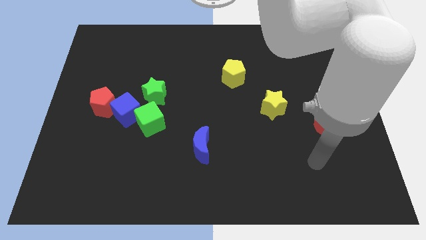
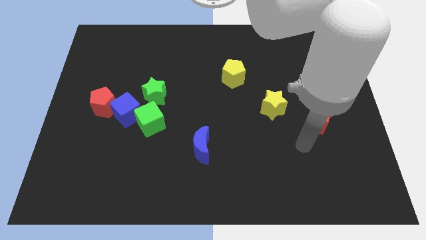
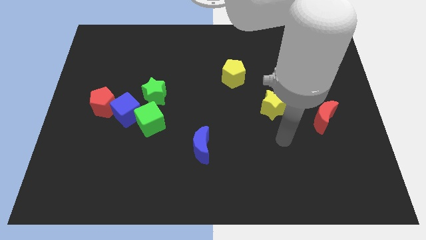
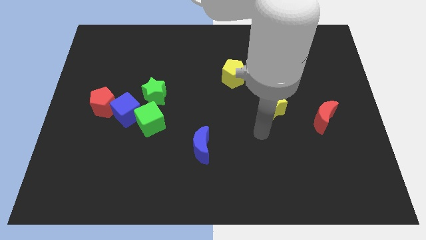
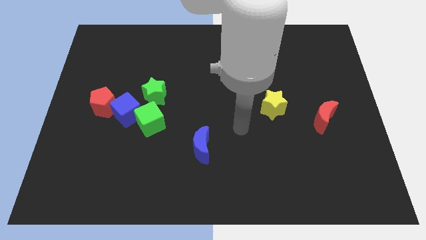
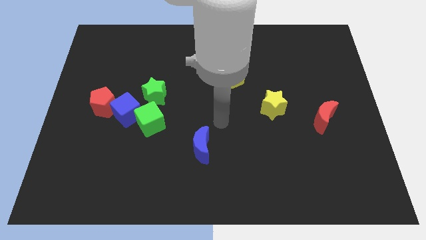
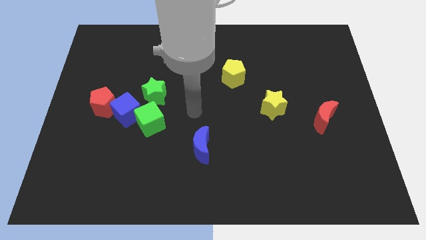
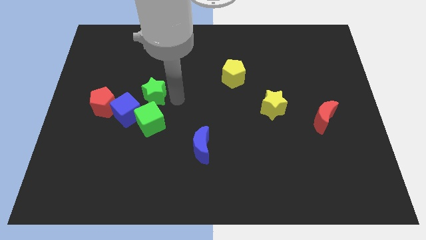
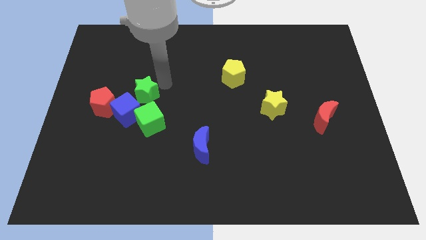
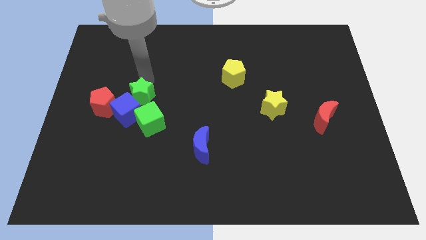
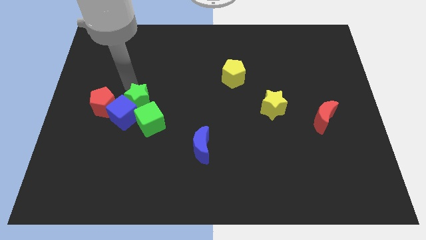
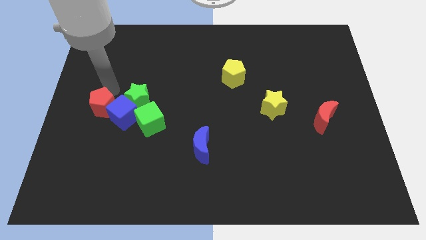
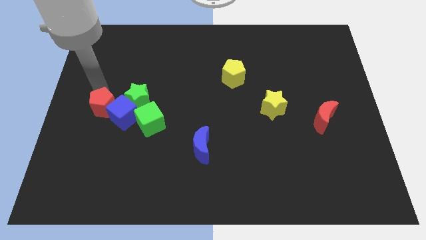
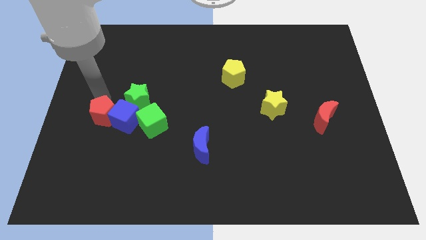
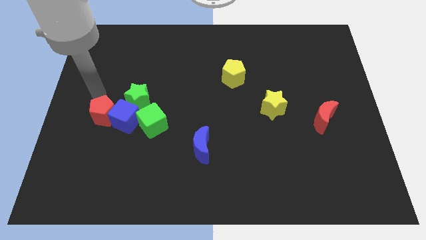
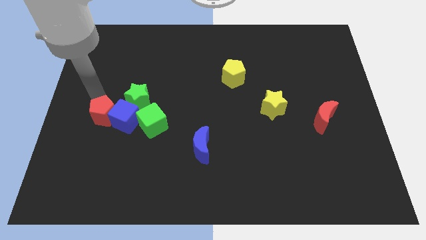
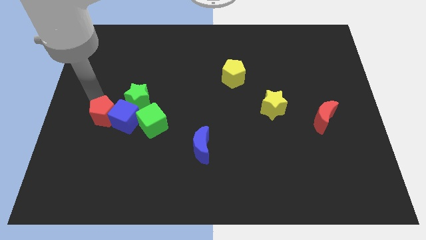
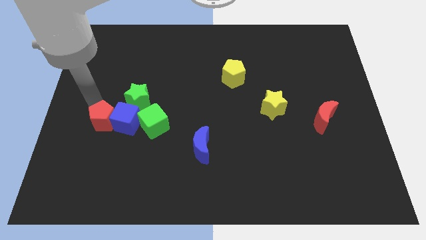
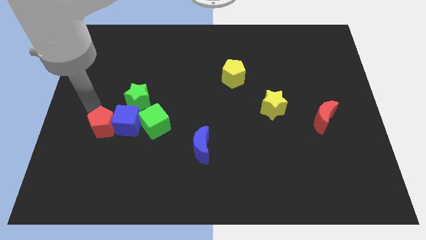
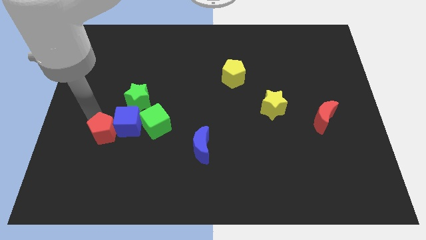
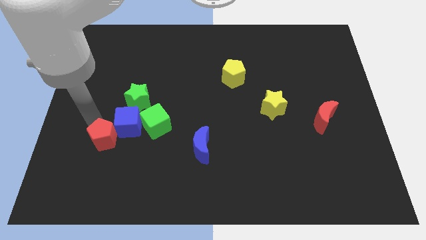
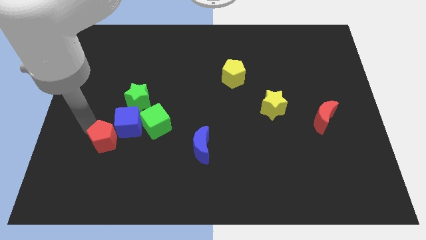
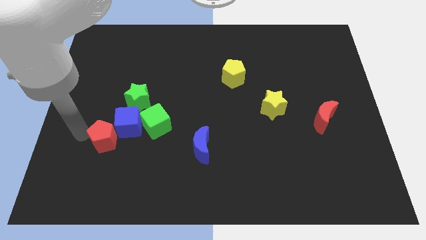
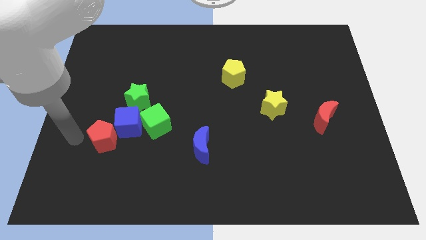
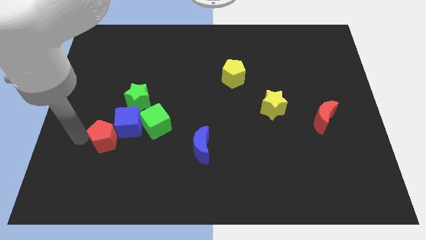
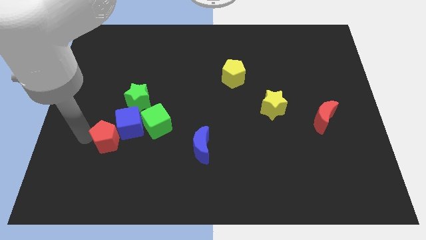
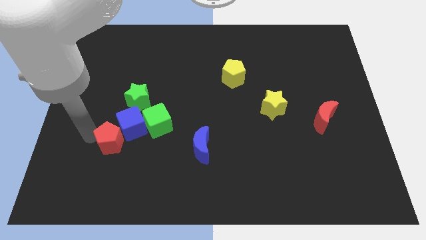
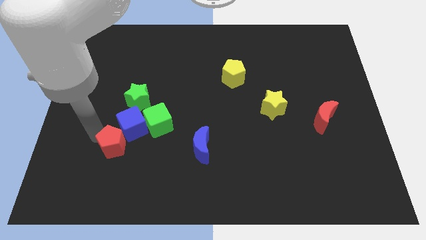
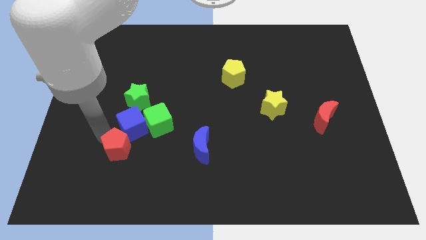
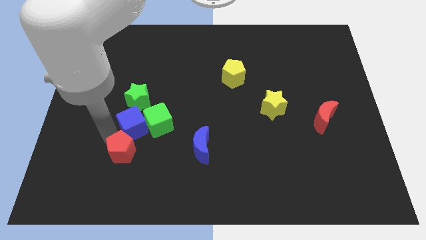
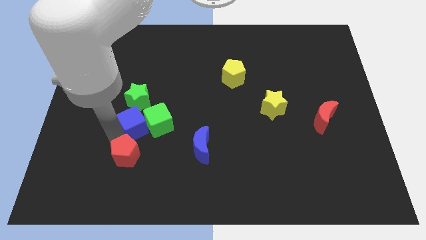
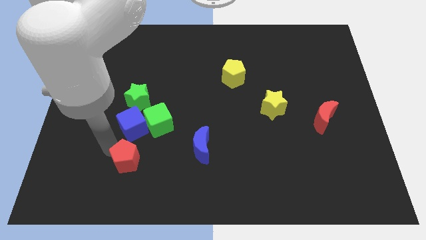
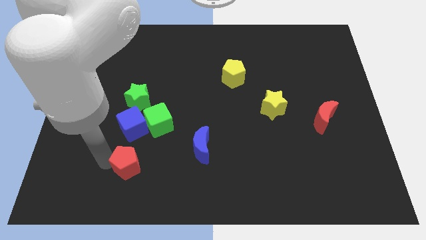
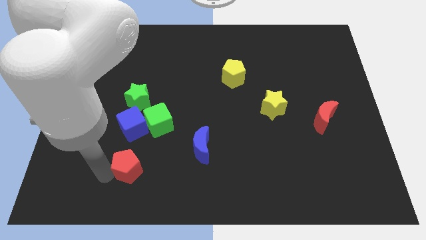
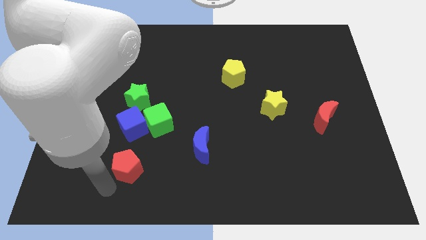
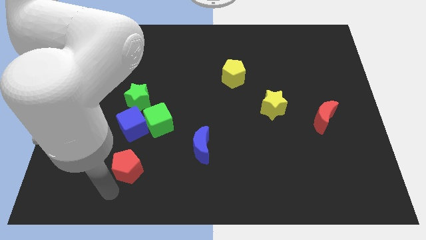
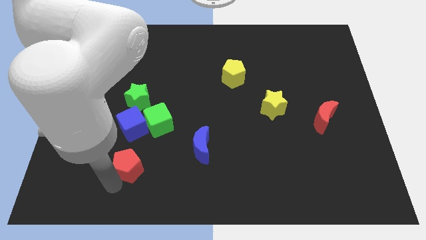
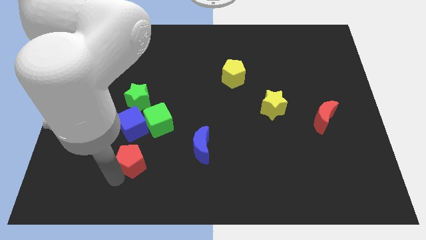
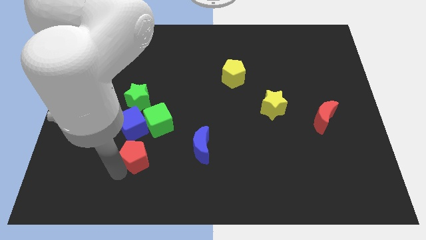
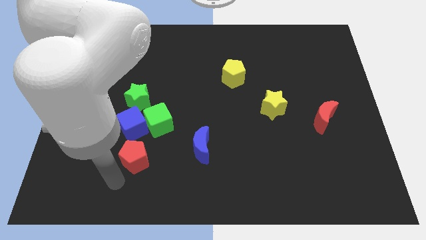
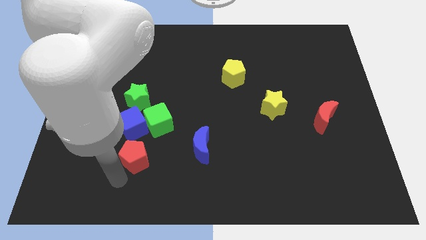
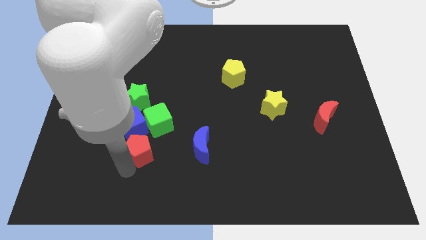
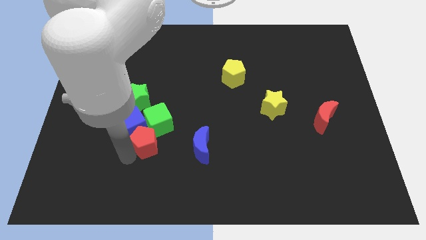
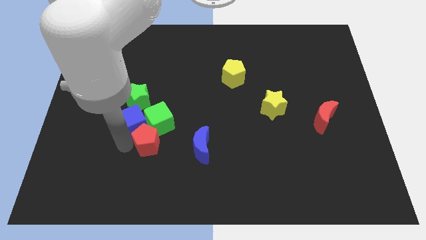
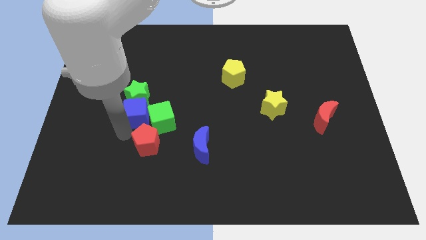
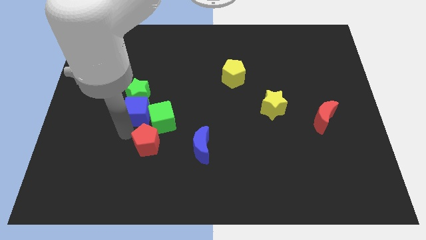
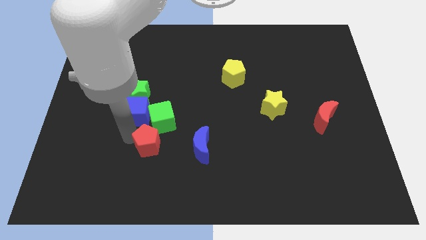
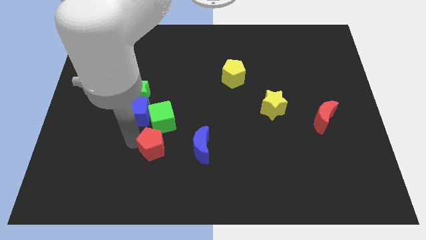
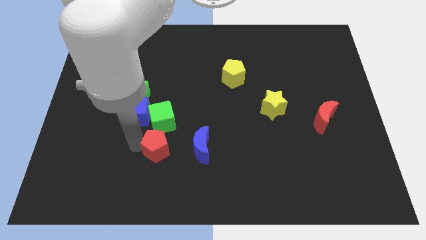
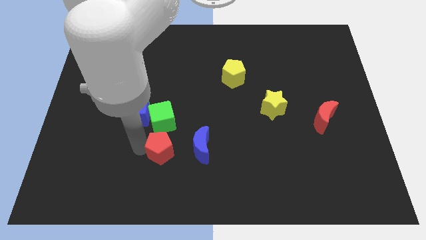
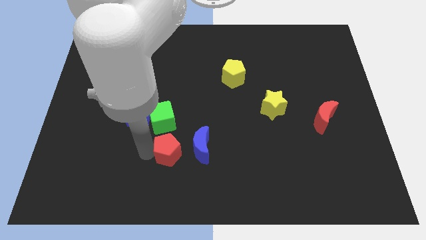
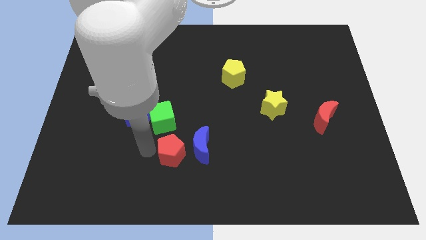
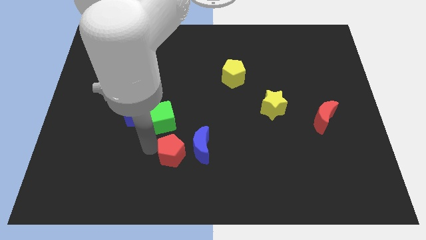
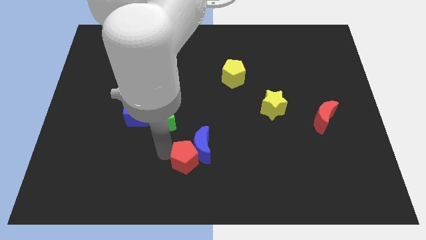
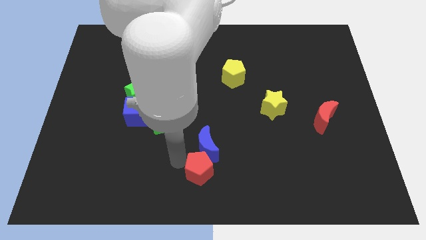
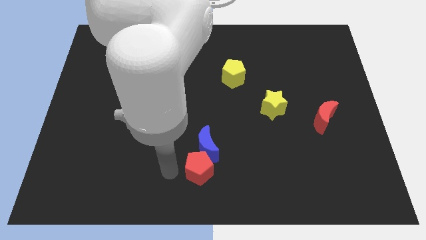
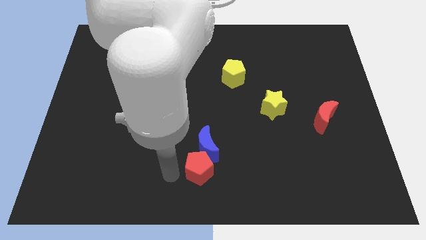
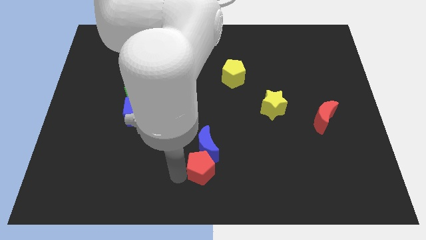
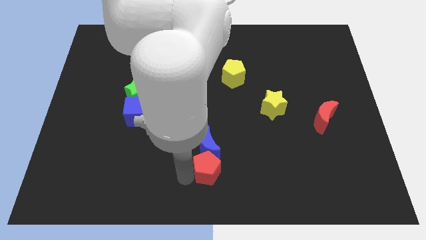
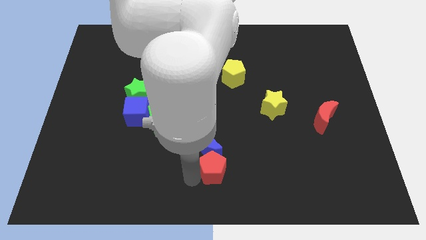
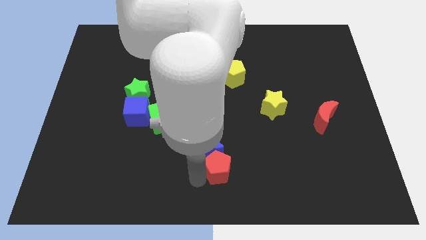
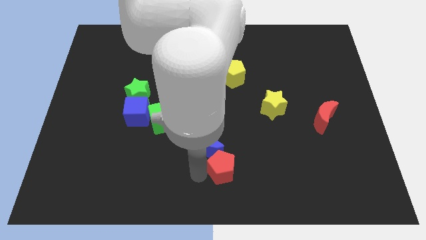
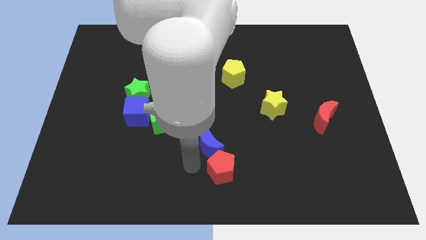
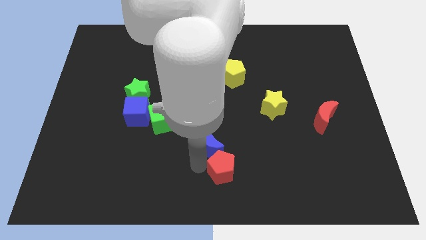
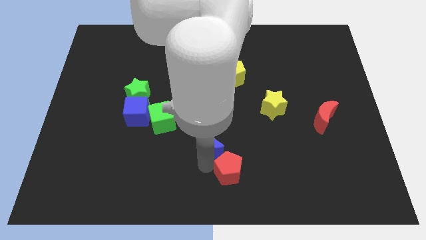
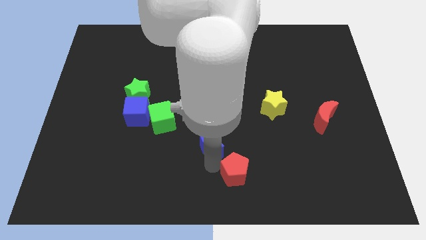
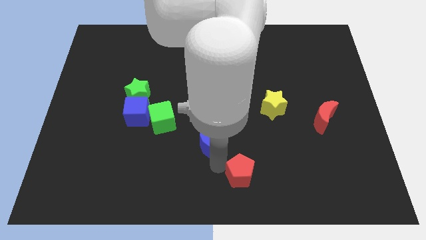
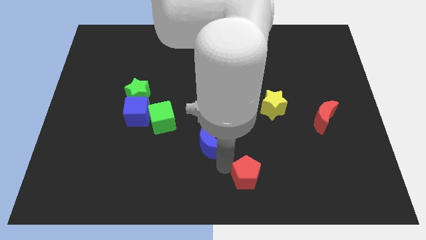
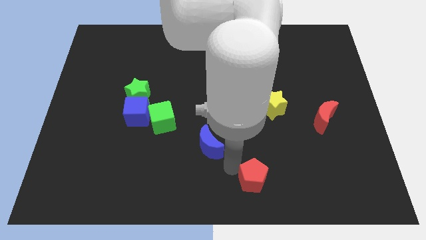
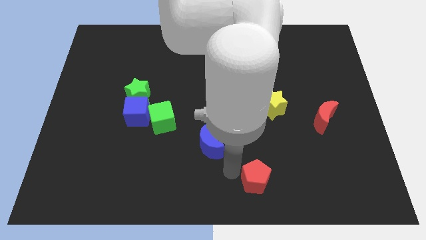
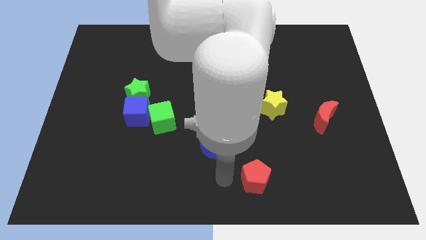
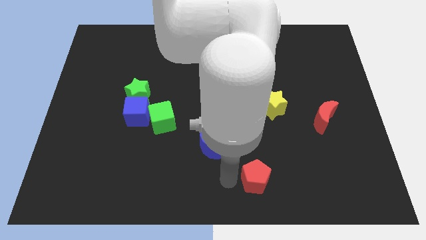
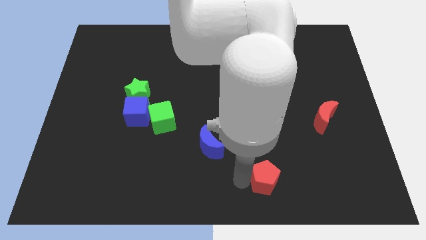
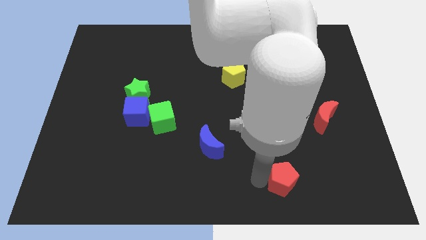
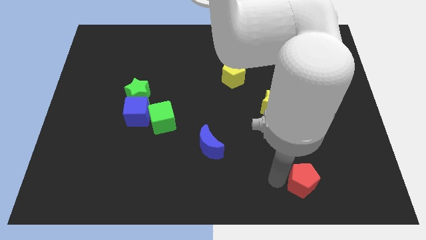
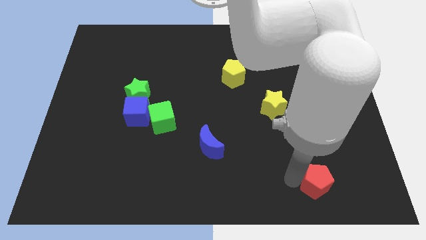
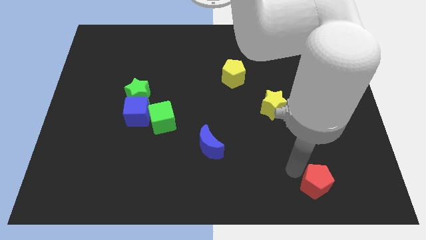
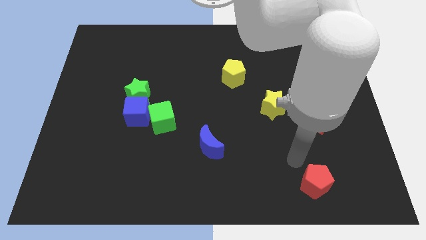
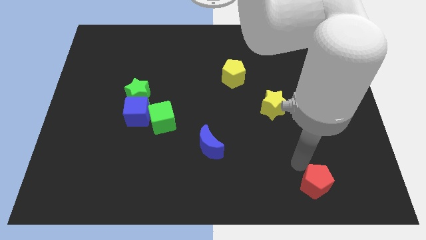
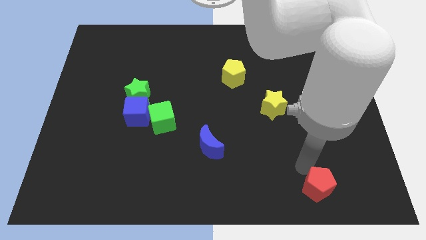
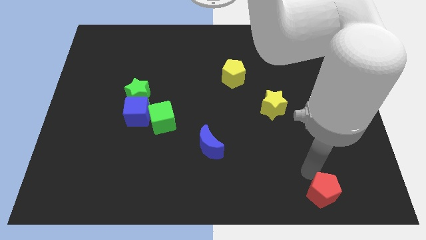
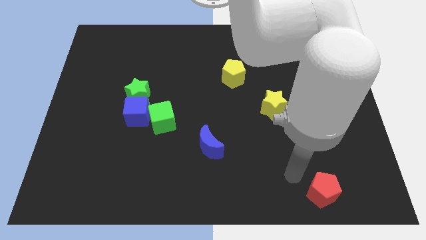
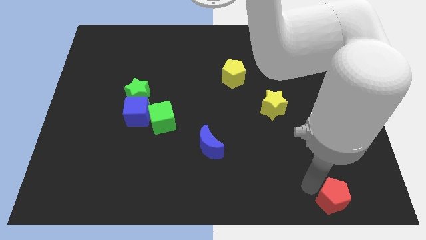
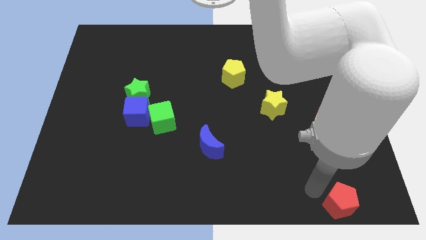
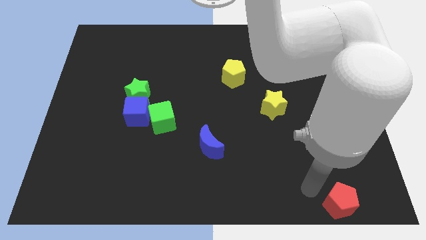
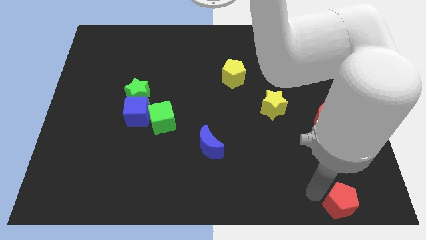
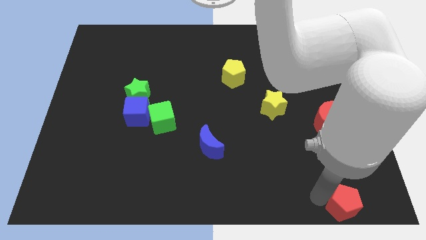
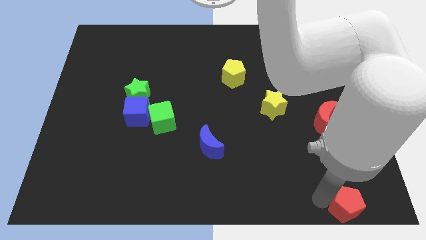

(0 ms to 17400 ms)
move the red pentagon to the bottom right
